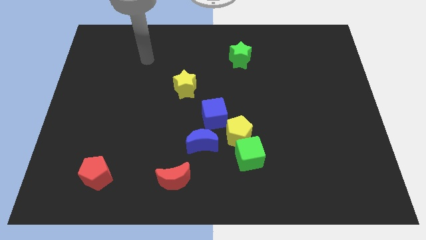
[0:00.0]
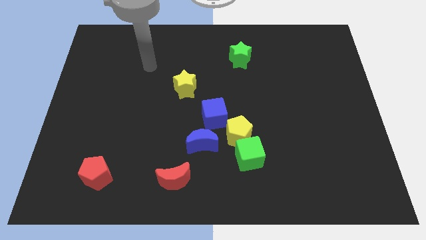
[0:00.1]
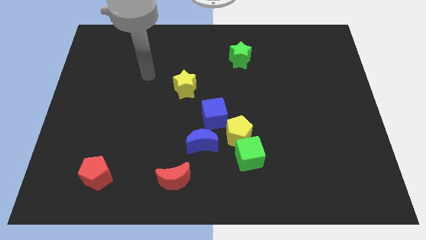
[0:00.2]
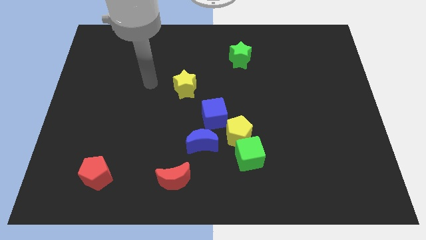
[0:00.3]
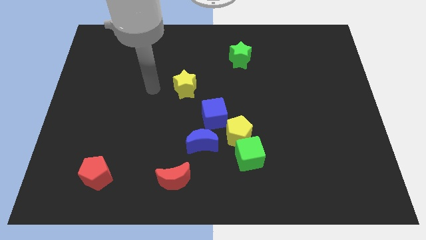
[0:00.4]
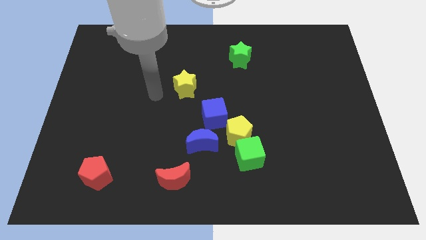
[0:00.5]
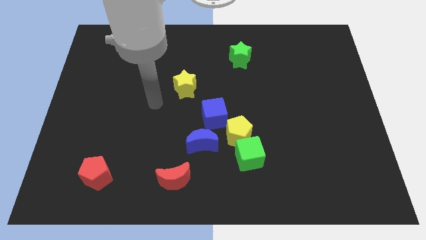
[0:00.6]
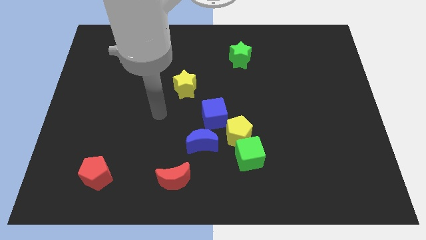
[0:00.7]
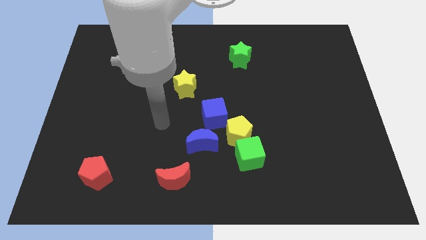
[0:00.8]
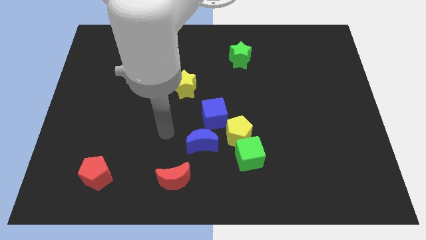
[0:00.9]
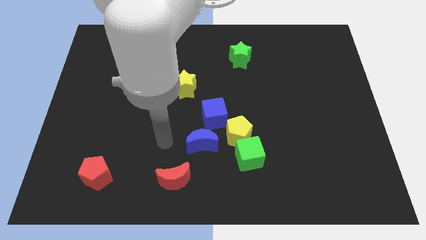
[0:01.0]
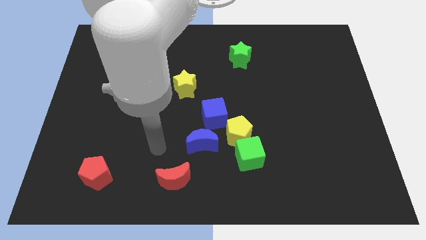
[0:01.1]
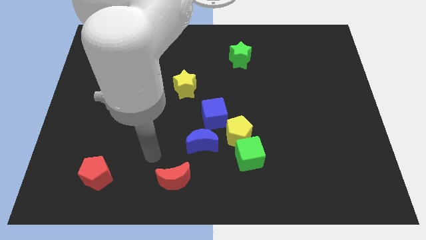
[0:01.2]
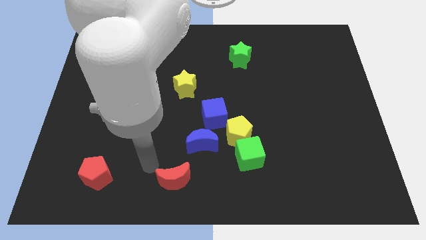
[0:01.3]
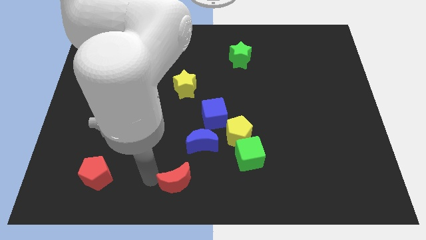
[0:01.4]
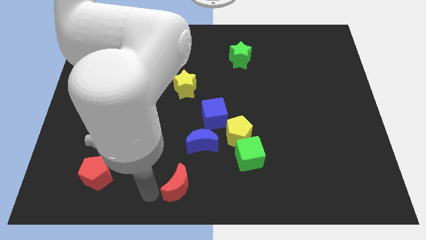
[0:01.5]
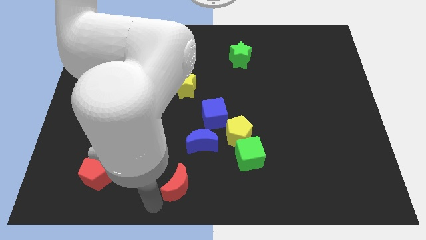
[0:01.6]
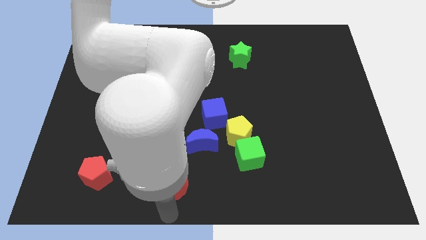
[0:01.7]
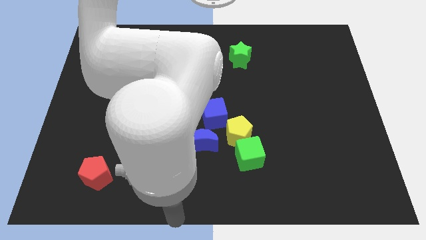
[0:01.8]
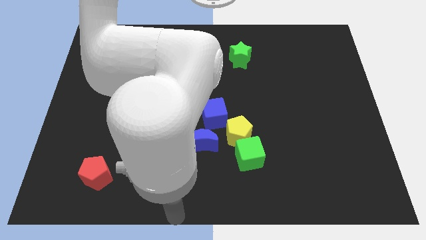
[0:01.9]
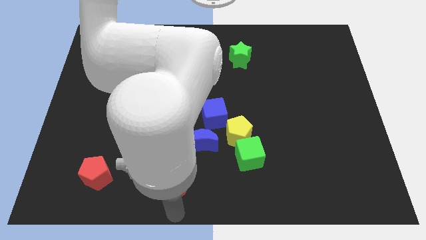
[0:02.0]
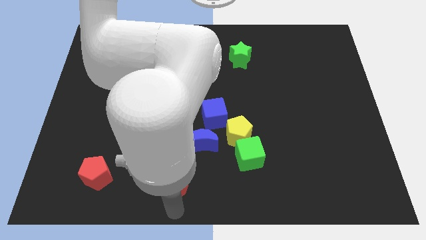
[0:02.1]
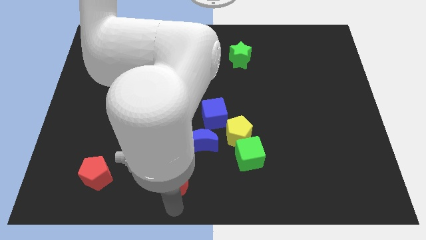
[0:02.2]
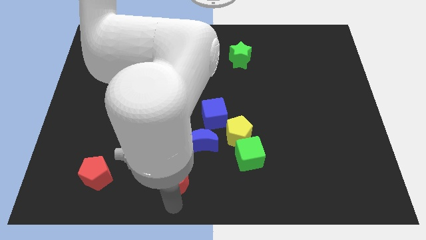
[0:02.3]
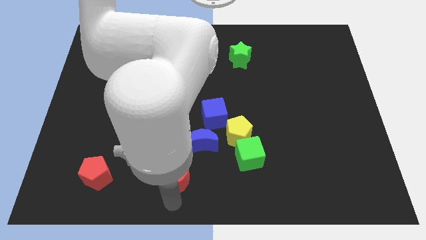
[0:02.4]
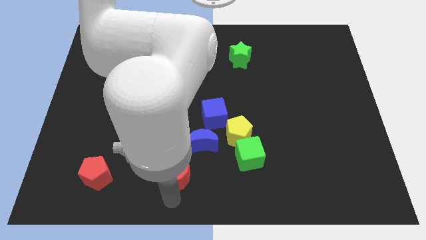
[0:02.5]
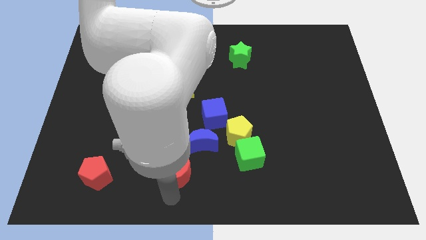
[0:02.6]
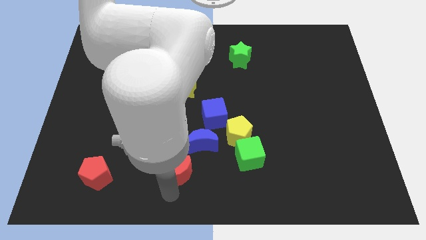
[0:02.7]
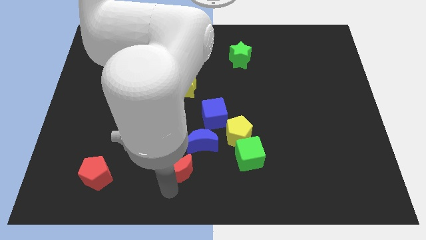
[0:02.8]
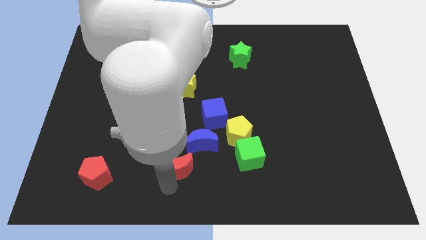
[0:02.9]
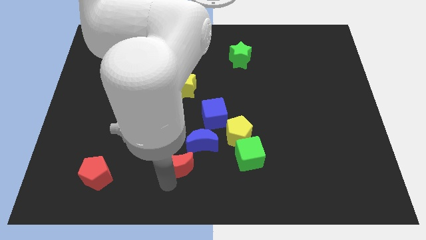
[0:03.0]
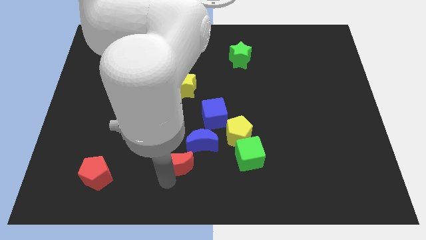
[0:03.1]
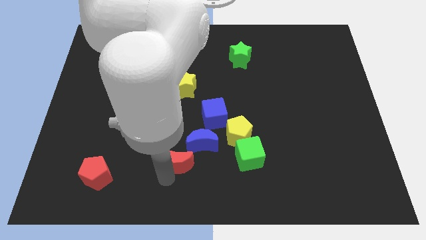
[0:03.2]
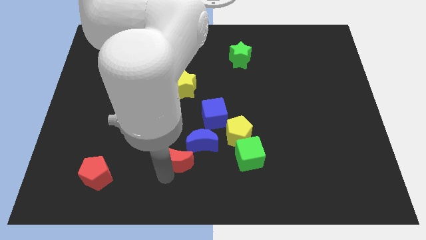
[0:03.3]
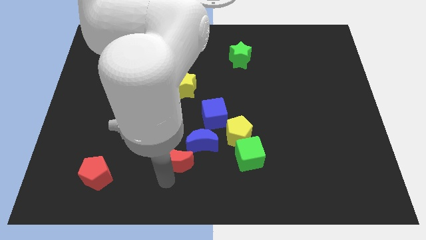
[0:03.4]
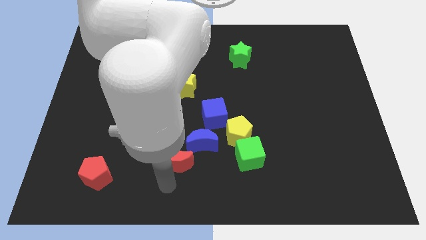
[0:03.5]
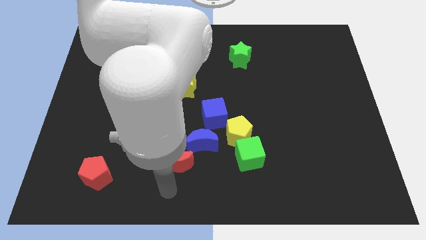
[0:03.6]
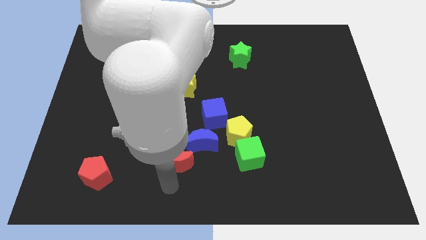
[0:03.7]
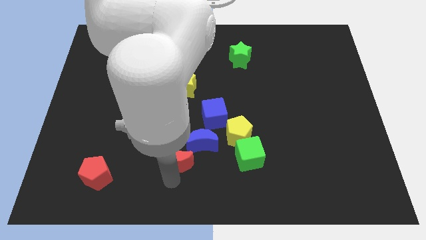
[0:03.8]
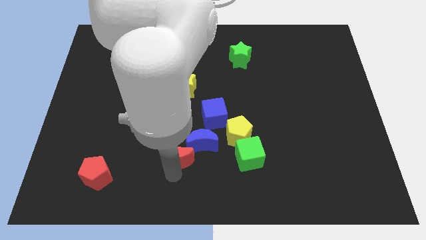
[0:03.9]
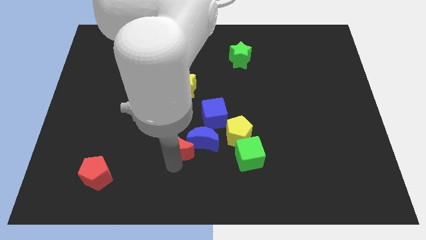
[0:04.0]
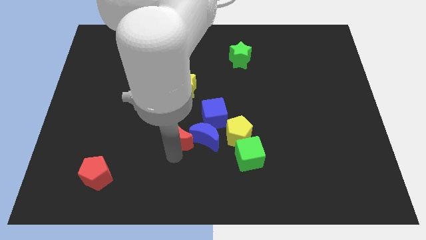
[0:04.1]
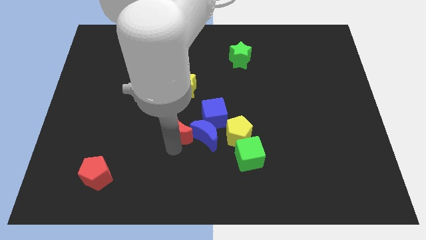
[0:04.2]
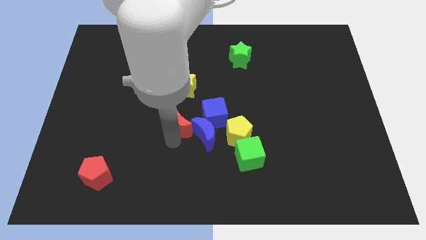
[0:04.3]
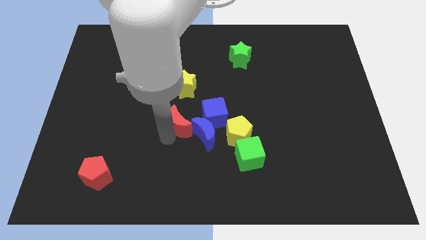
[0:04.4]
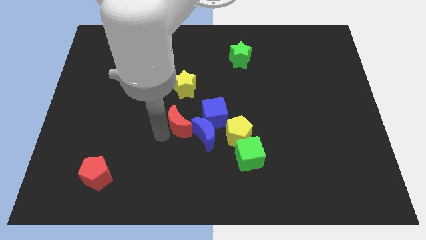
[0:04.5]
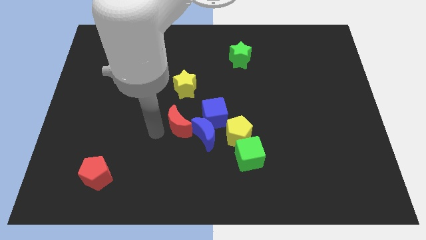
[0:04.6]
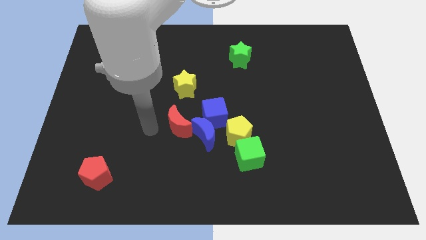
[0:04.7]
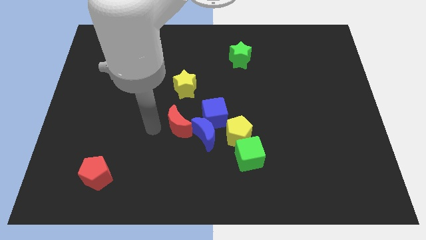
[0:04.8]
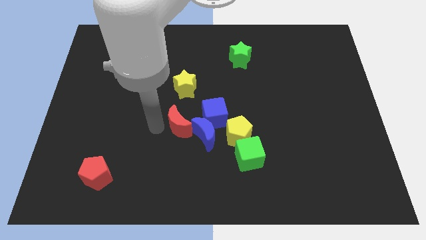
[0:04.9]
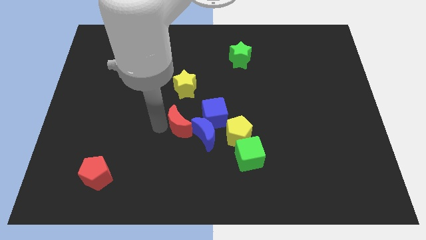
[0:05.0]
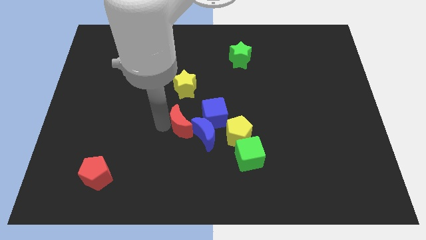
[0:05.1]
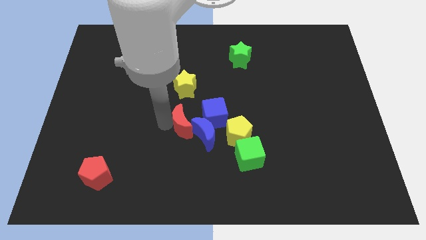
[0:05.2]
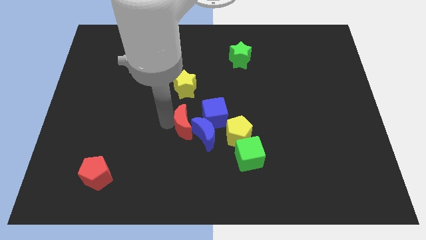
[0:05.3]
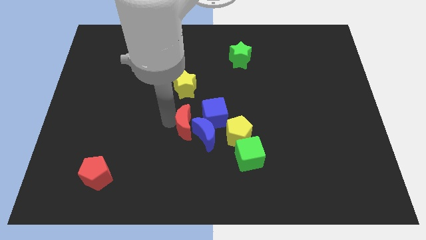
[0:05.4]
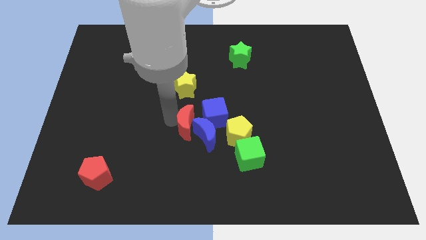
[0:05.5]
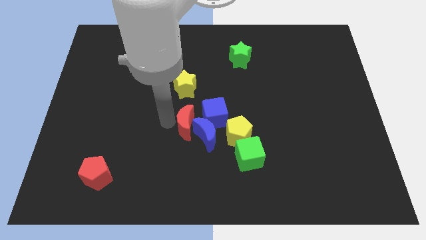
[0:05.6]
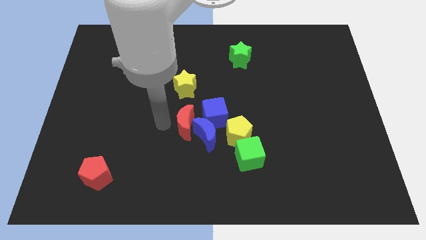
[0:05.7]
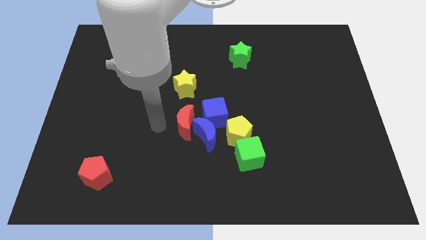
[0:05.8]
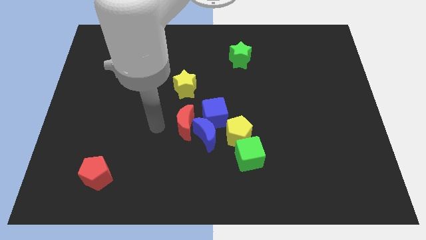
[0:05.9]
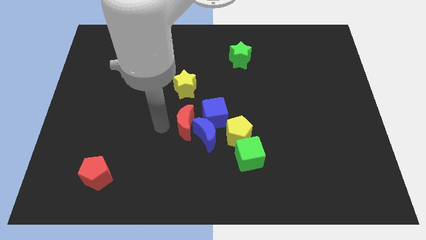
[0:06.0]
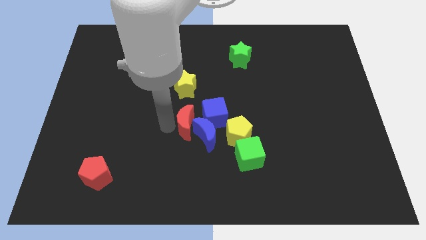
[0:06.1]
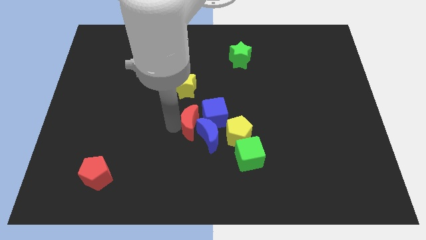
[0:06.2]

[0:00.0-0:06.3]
put the red moon close to the blue cube

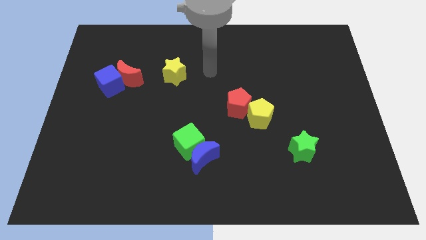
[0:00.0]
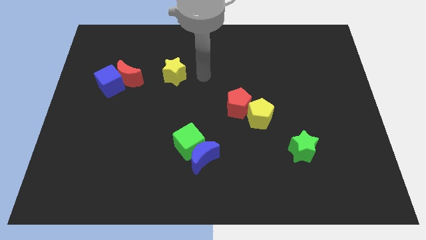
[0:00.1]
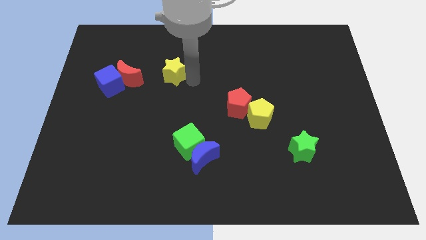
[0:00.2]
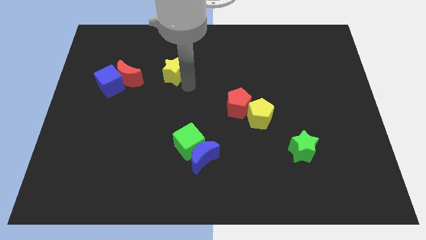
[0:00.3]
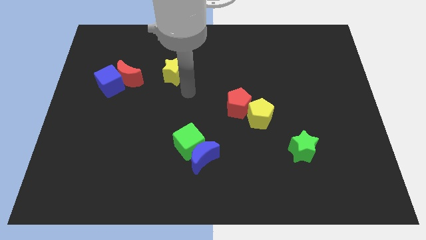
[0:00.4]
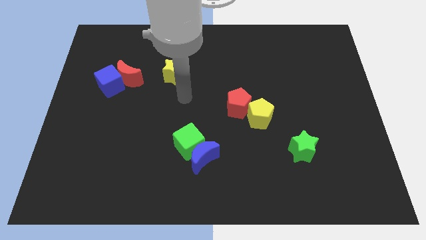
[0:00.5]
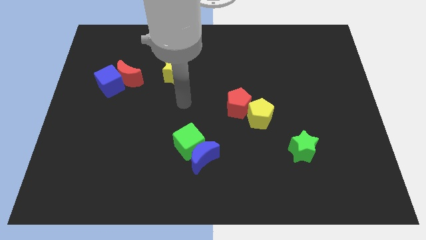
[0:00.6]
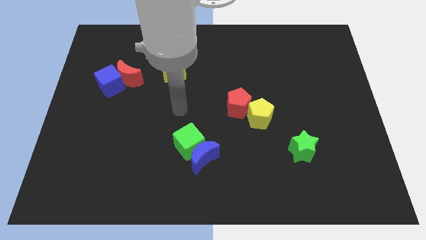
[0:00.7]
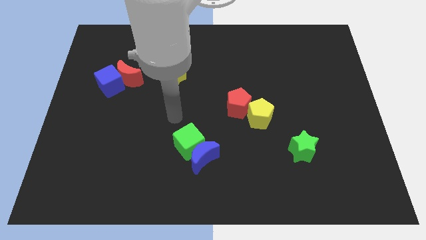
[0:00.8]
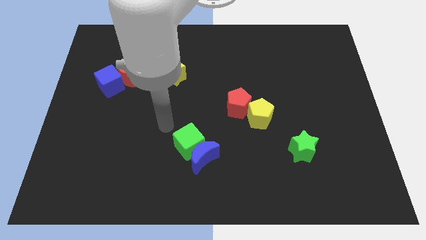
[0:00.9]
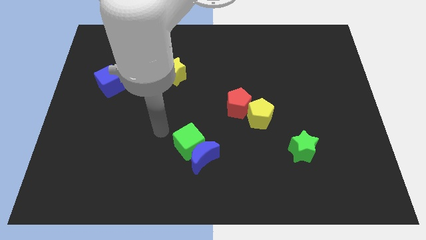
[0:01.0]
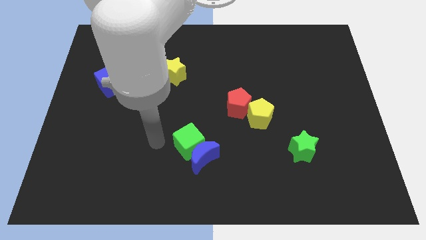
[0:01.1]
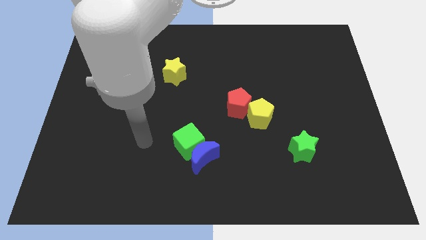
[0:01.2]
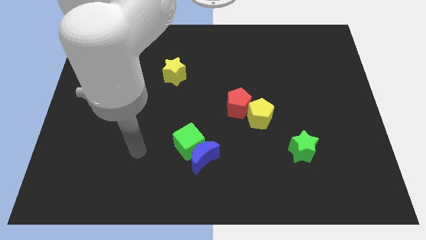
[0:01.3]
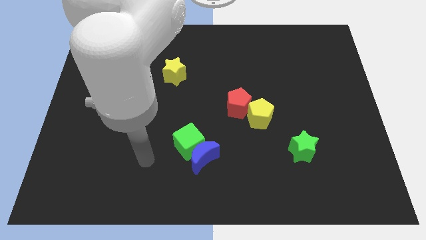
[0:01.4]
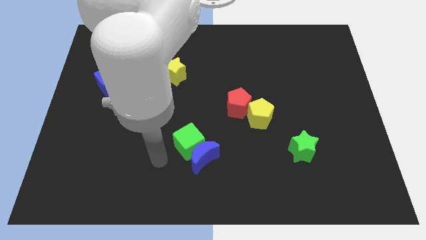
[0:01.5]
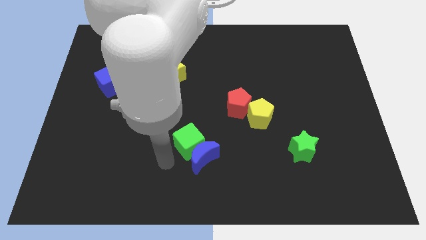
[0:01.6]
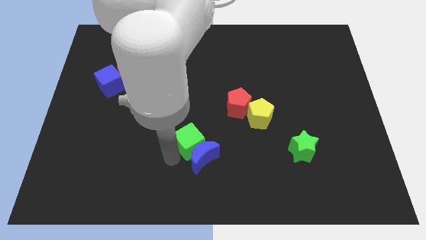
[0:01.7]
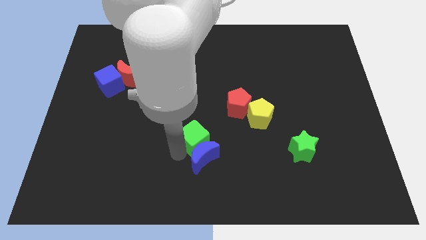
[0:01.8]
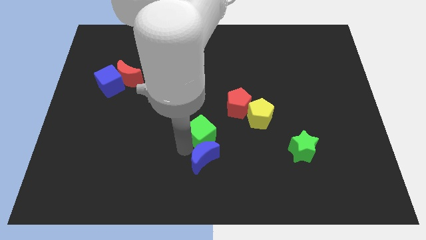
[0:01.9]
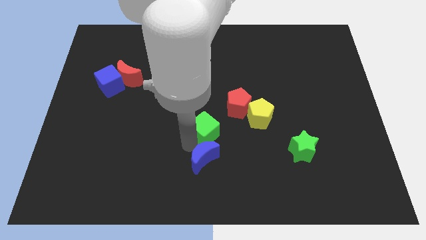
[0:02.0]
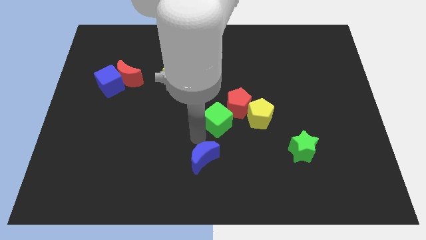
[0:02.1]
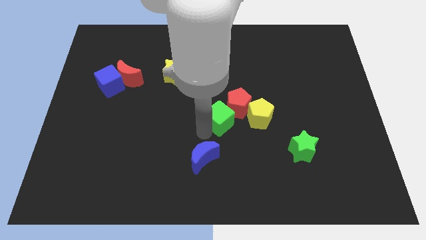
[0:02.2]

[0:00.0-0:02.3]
push the green cube towards the red pentagon
